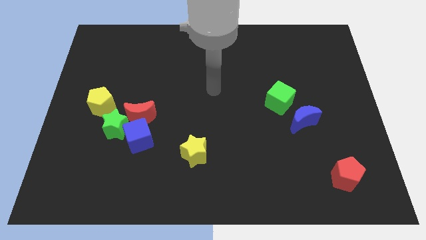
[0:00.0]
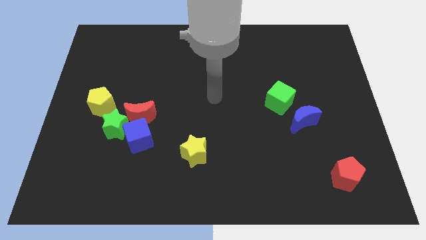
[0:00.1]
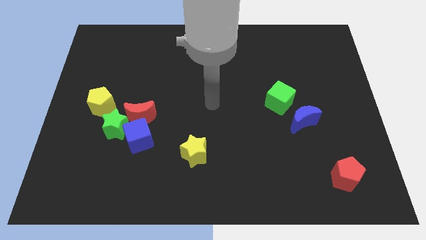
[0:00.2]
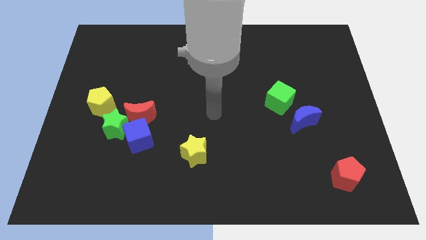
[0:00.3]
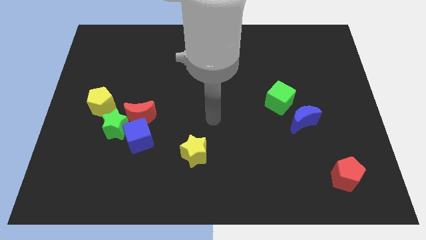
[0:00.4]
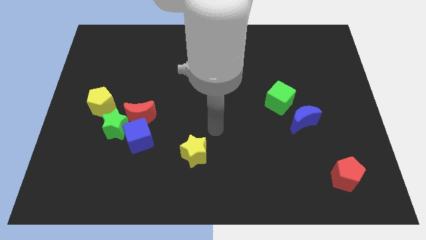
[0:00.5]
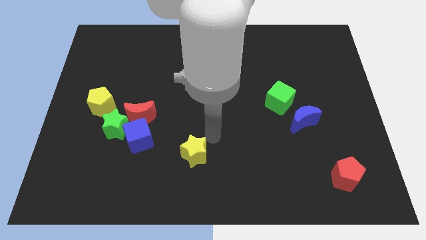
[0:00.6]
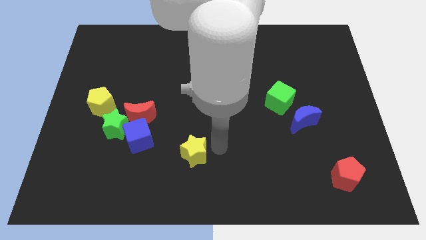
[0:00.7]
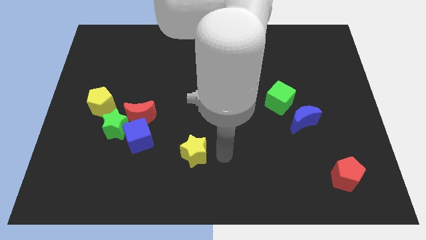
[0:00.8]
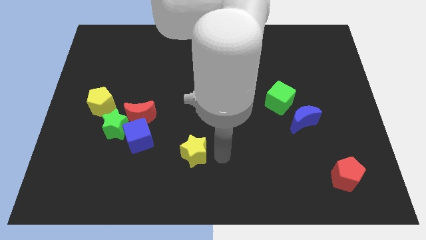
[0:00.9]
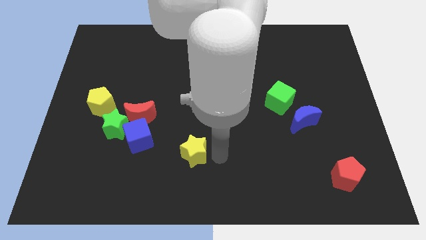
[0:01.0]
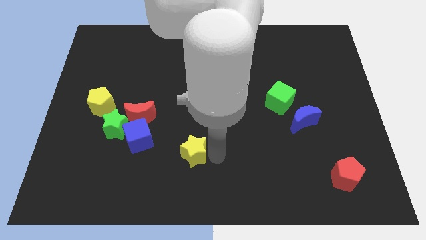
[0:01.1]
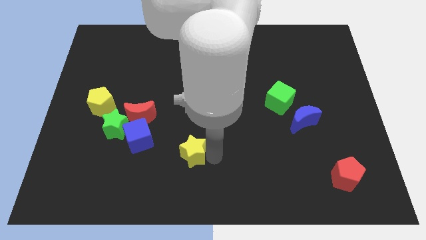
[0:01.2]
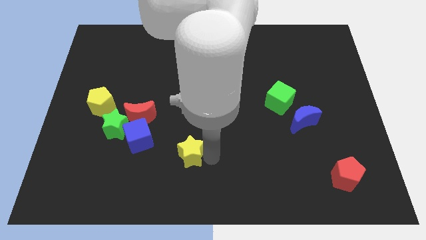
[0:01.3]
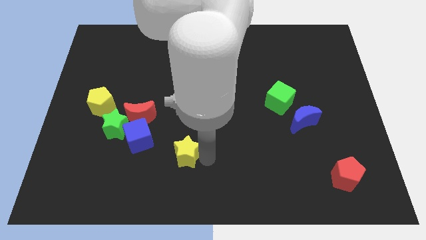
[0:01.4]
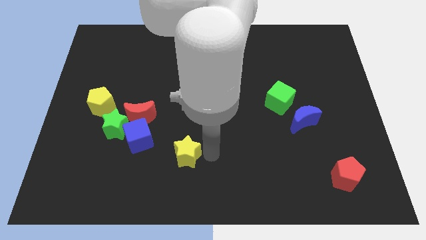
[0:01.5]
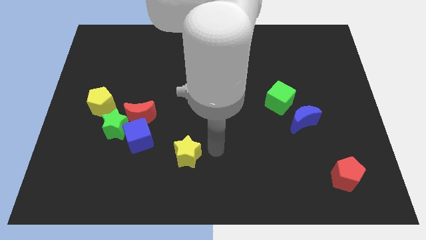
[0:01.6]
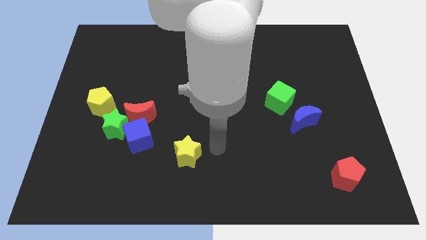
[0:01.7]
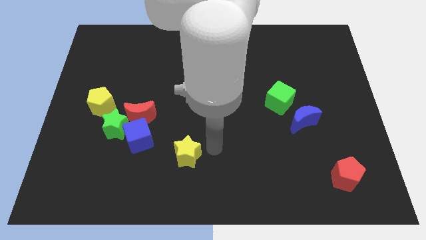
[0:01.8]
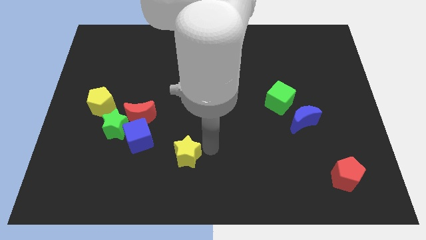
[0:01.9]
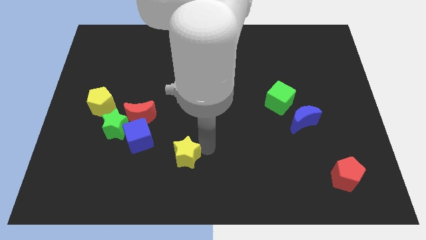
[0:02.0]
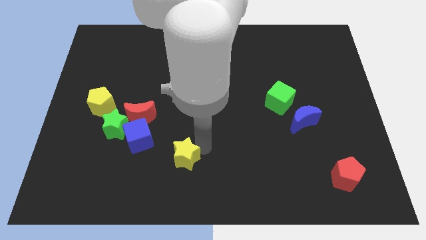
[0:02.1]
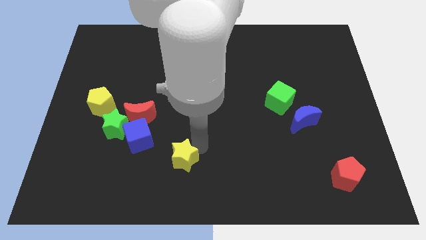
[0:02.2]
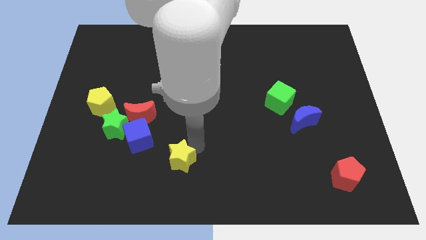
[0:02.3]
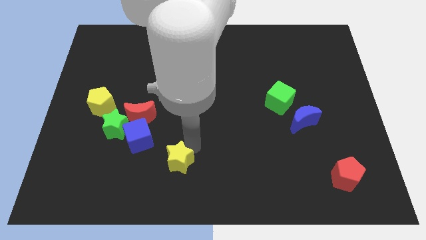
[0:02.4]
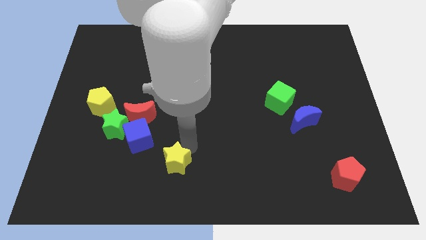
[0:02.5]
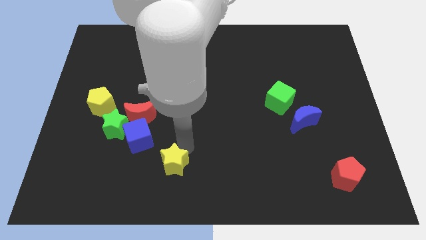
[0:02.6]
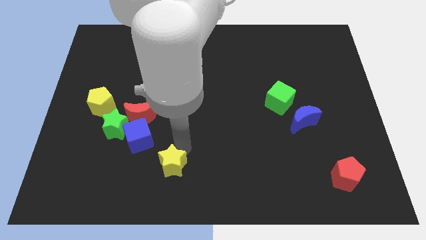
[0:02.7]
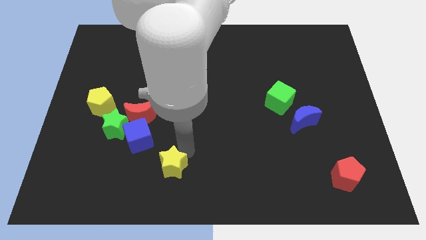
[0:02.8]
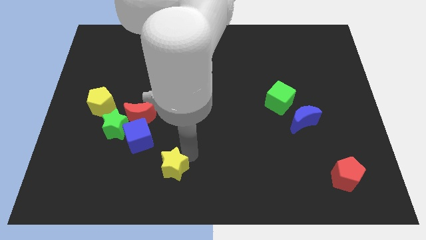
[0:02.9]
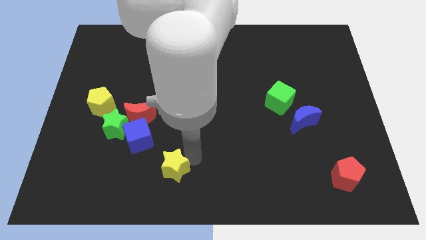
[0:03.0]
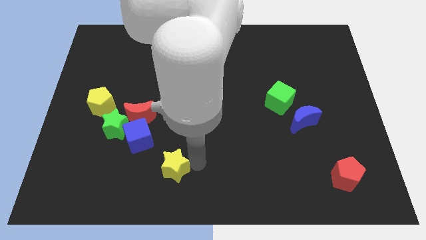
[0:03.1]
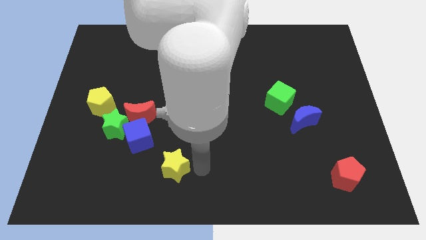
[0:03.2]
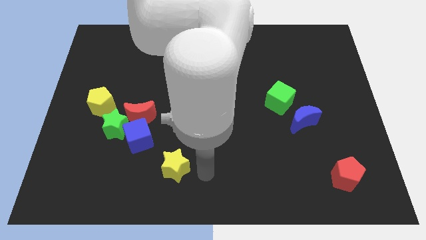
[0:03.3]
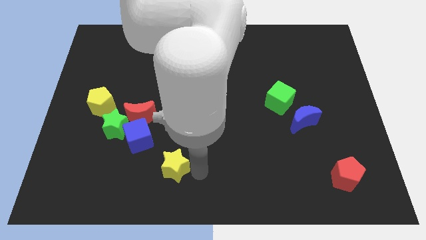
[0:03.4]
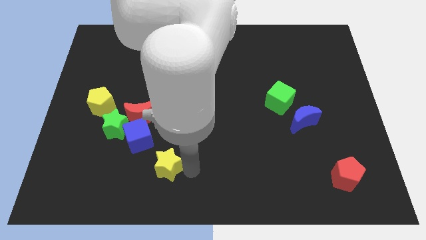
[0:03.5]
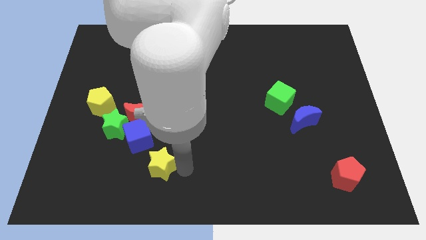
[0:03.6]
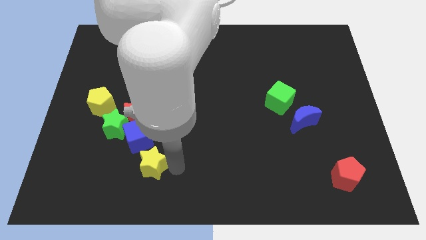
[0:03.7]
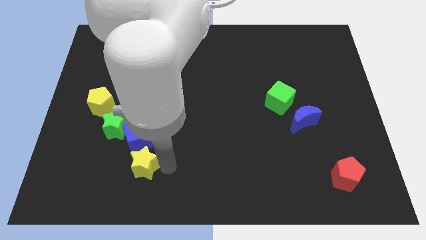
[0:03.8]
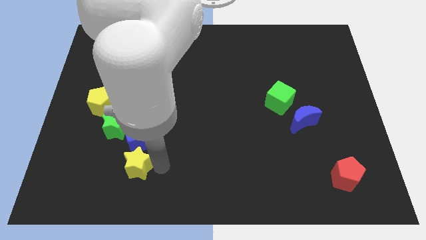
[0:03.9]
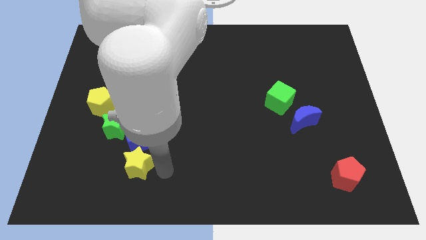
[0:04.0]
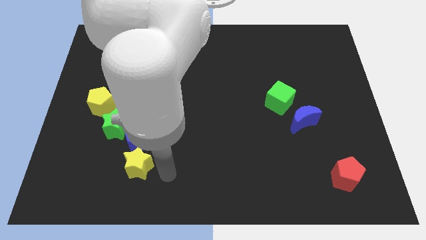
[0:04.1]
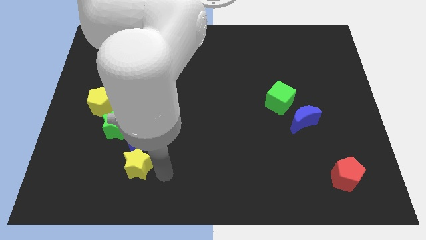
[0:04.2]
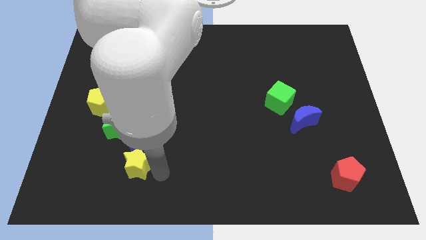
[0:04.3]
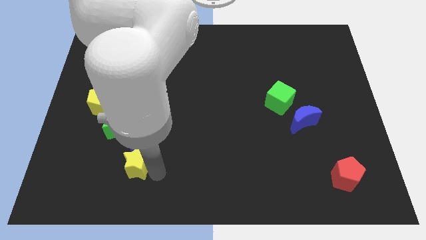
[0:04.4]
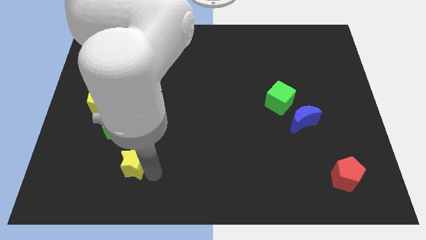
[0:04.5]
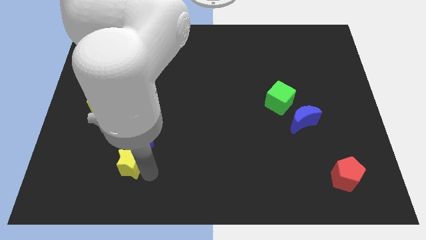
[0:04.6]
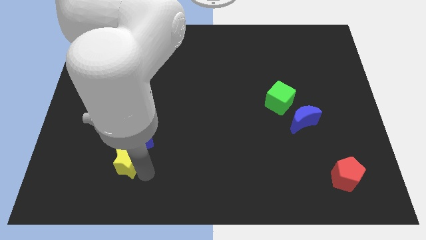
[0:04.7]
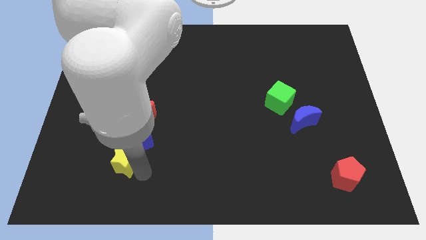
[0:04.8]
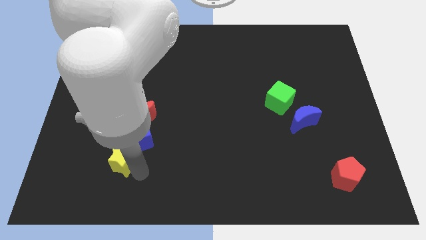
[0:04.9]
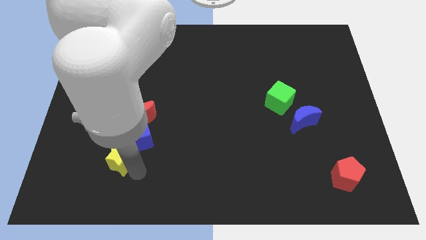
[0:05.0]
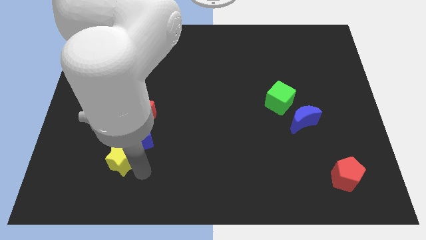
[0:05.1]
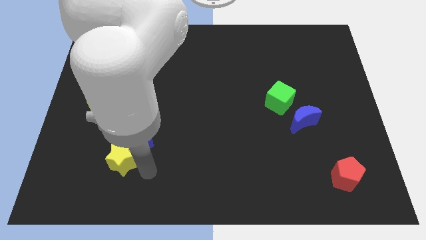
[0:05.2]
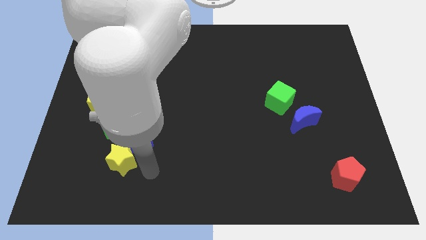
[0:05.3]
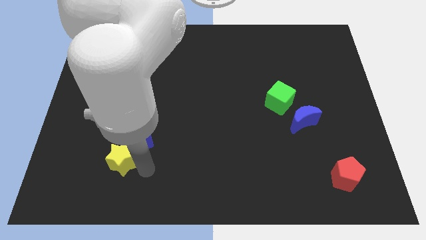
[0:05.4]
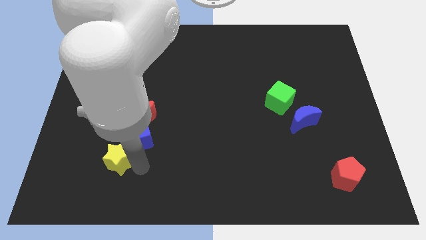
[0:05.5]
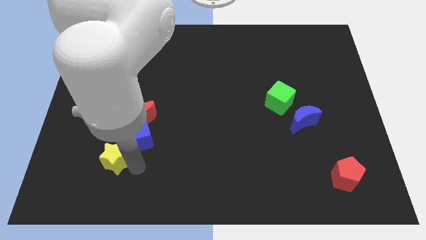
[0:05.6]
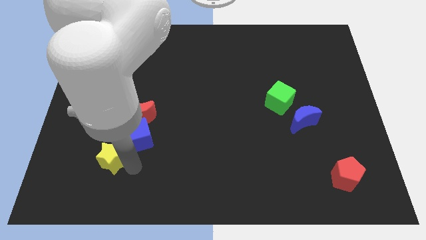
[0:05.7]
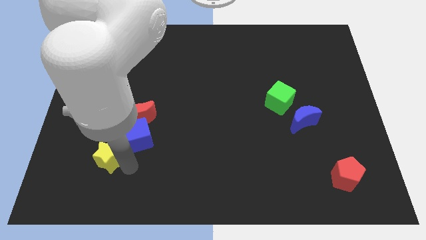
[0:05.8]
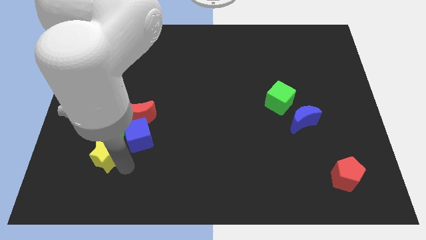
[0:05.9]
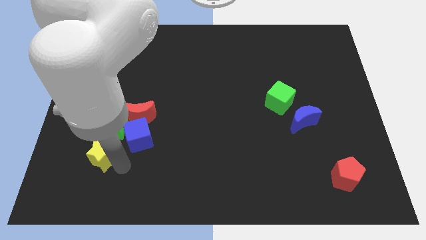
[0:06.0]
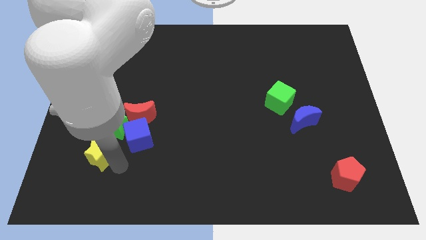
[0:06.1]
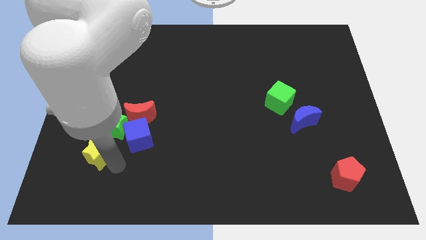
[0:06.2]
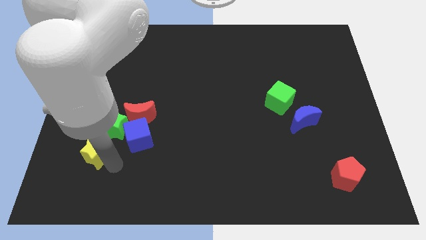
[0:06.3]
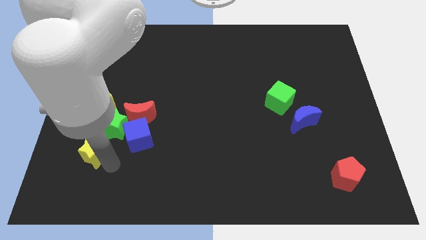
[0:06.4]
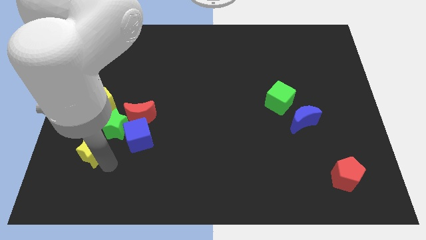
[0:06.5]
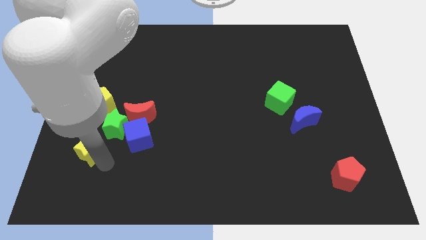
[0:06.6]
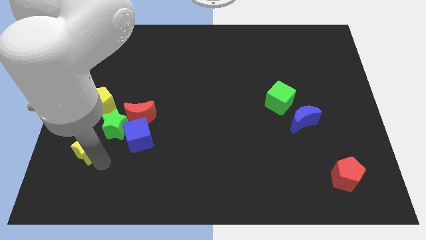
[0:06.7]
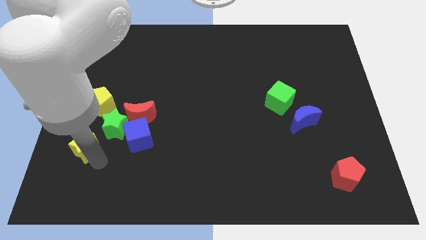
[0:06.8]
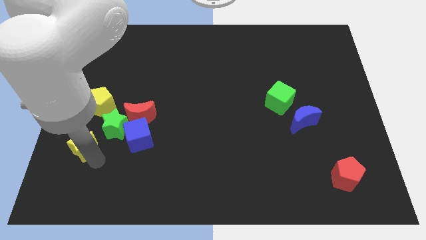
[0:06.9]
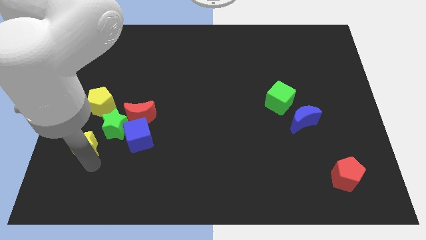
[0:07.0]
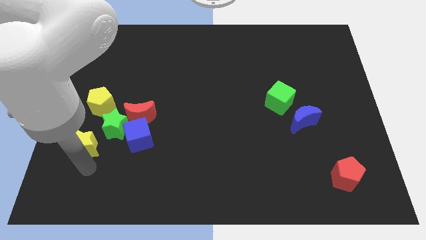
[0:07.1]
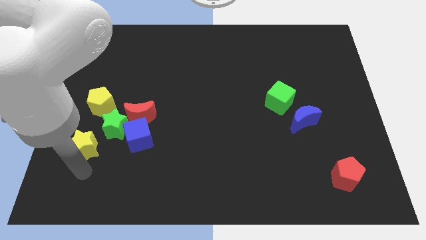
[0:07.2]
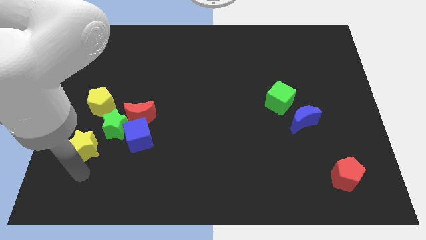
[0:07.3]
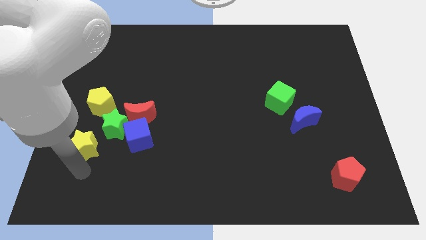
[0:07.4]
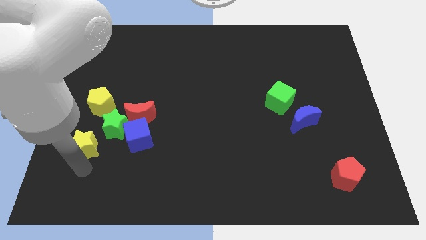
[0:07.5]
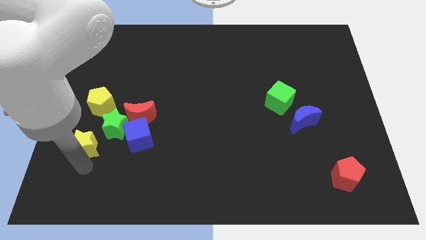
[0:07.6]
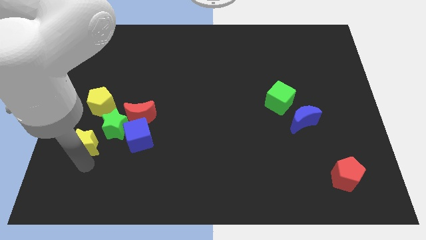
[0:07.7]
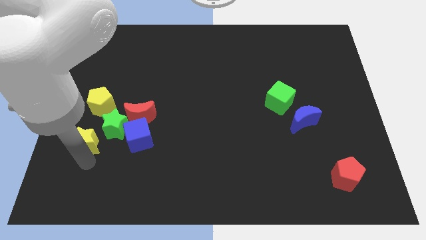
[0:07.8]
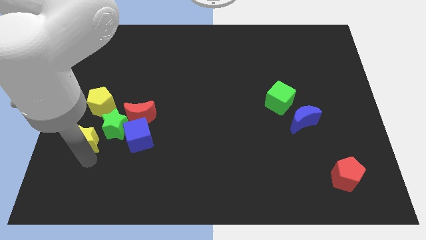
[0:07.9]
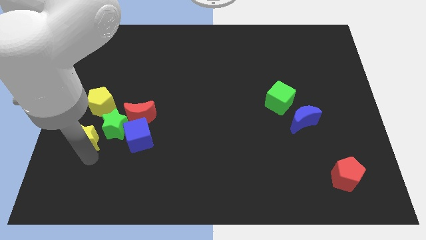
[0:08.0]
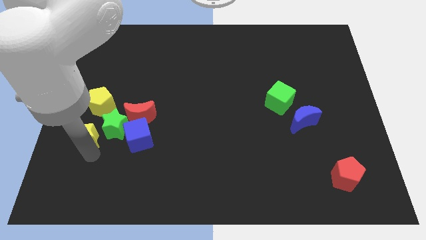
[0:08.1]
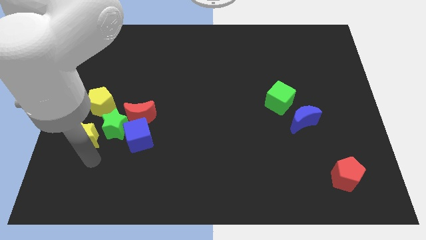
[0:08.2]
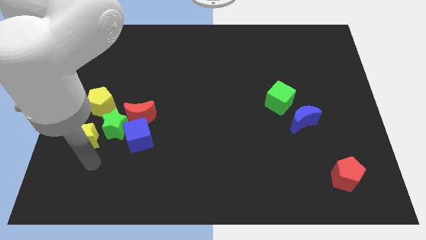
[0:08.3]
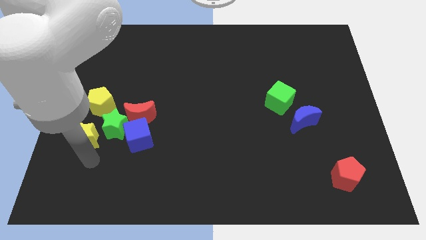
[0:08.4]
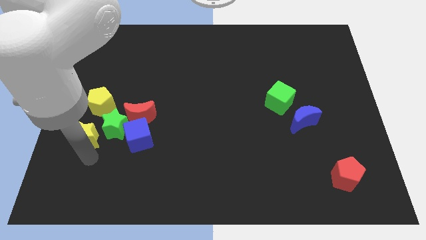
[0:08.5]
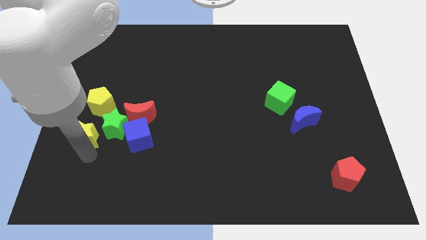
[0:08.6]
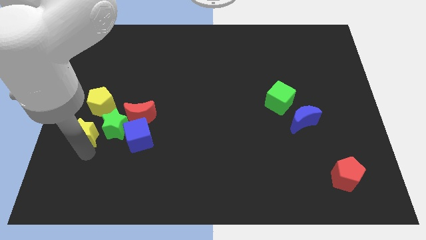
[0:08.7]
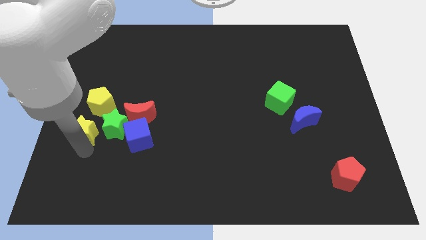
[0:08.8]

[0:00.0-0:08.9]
move the yellow star to the left side
